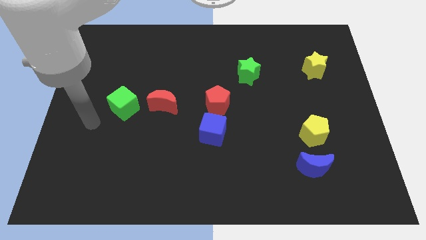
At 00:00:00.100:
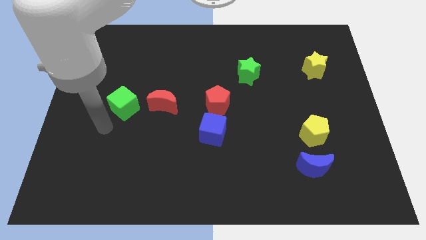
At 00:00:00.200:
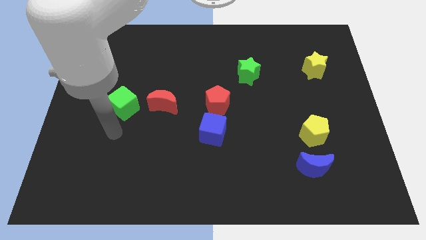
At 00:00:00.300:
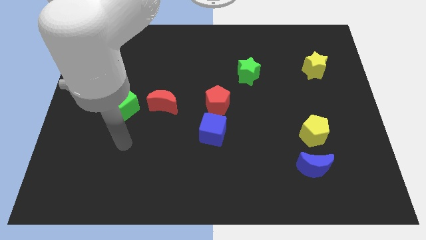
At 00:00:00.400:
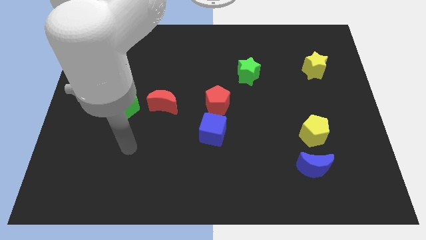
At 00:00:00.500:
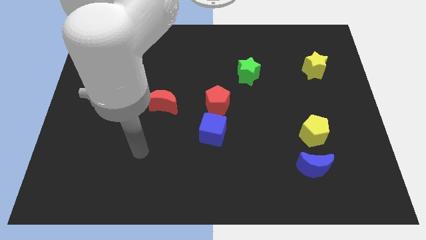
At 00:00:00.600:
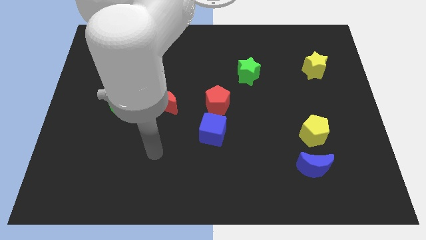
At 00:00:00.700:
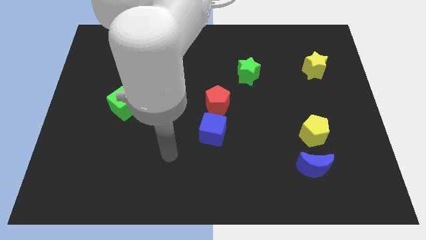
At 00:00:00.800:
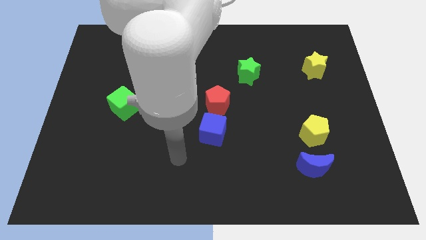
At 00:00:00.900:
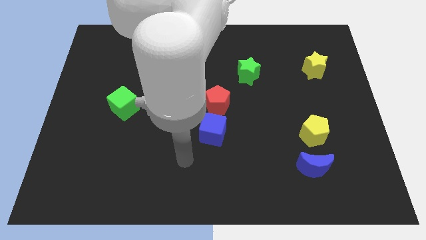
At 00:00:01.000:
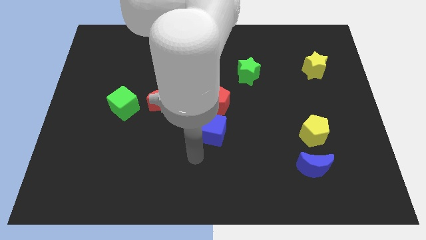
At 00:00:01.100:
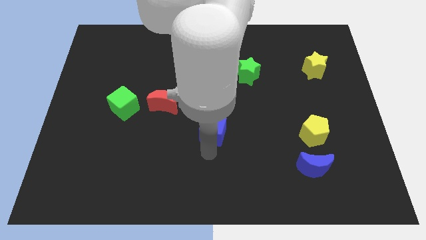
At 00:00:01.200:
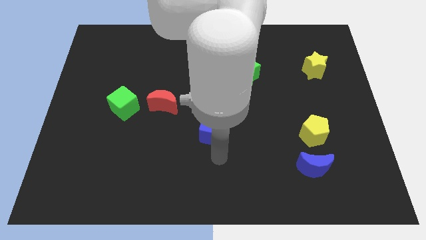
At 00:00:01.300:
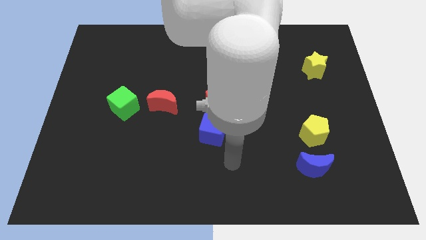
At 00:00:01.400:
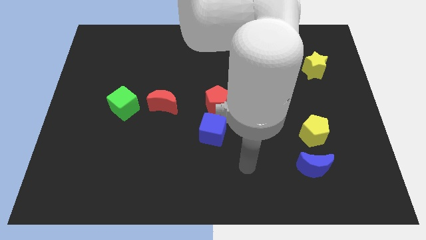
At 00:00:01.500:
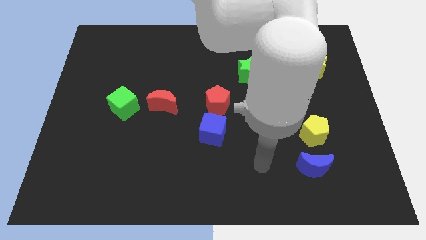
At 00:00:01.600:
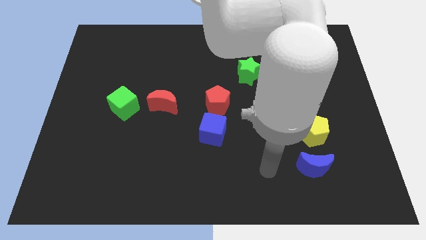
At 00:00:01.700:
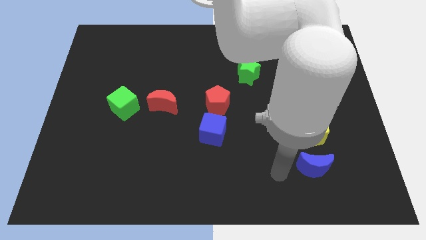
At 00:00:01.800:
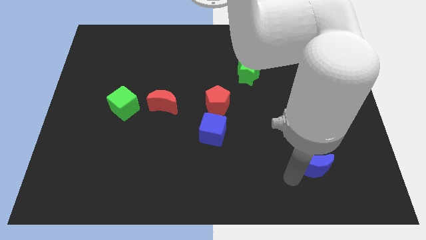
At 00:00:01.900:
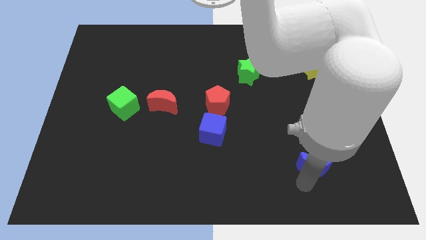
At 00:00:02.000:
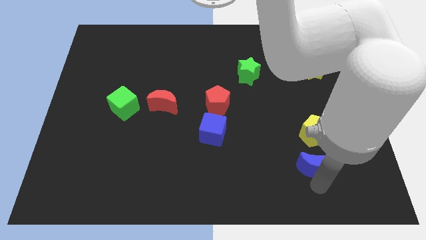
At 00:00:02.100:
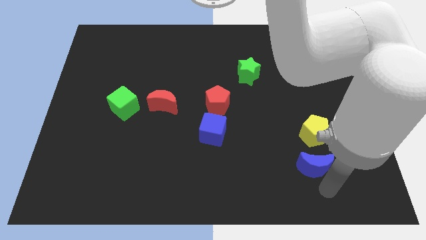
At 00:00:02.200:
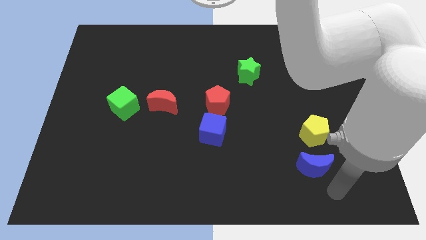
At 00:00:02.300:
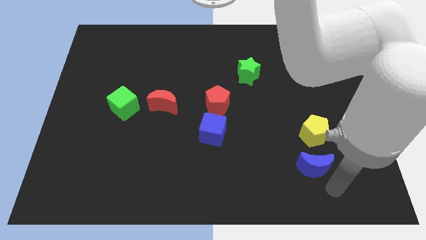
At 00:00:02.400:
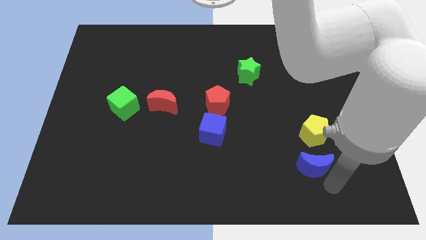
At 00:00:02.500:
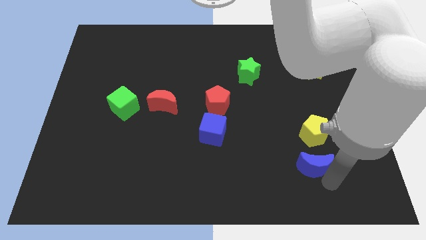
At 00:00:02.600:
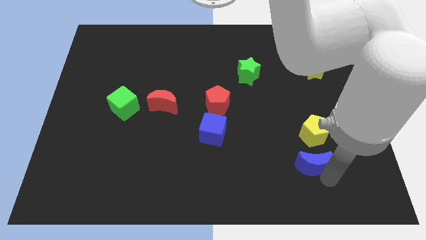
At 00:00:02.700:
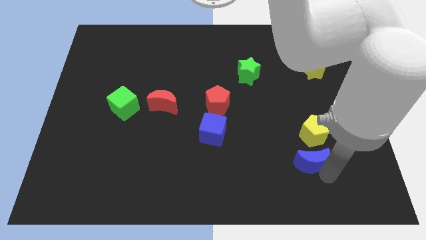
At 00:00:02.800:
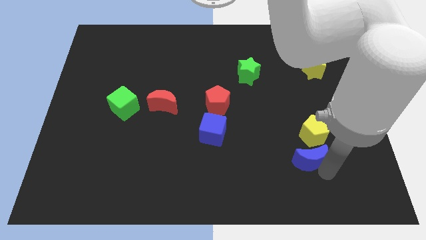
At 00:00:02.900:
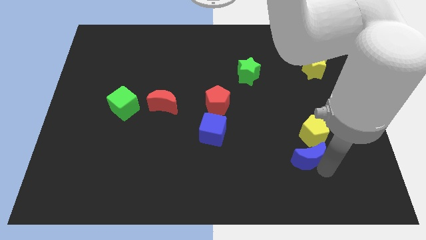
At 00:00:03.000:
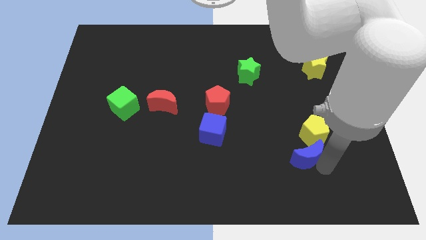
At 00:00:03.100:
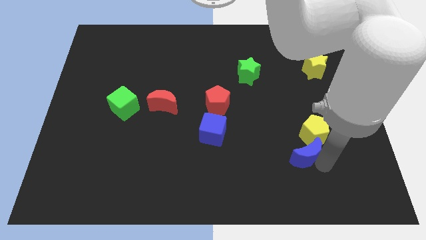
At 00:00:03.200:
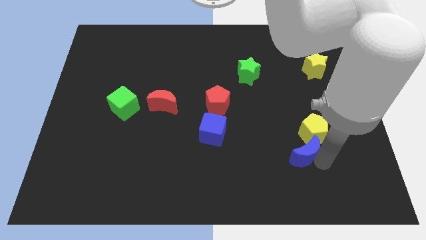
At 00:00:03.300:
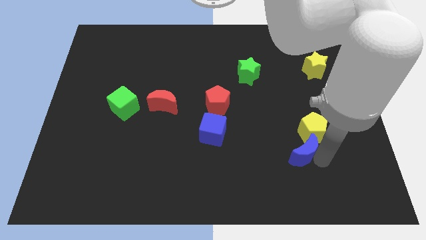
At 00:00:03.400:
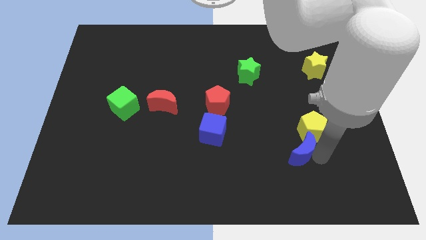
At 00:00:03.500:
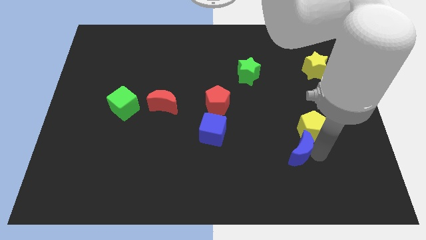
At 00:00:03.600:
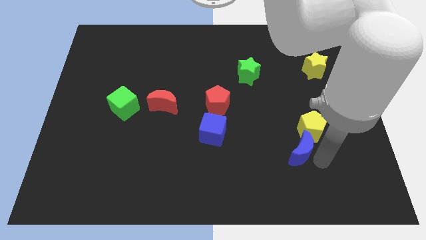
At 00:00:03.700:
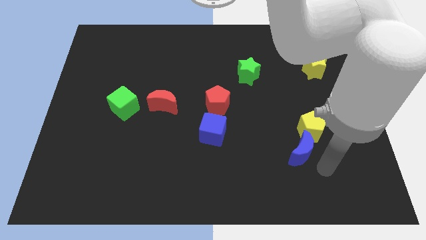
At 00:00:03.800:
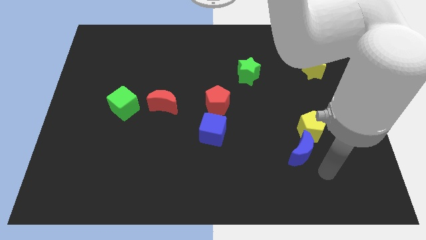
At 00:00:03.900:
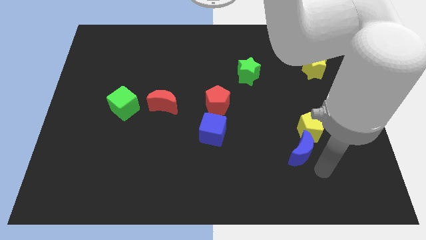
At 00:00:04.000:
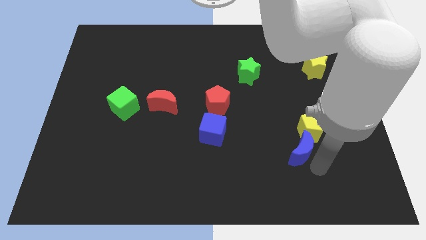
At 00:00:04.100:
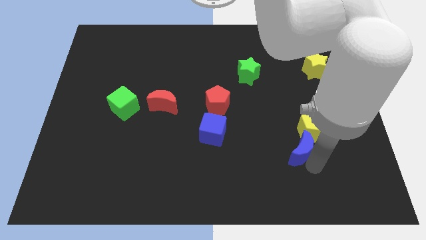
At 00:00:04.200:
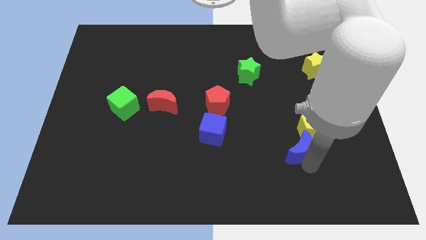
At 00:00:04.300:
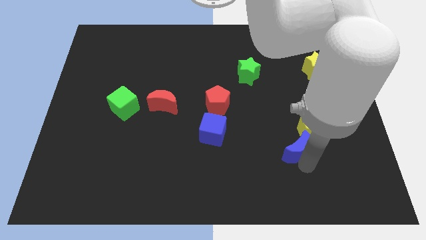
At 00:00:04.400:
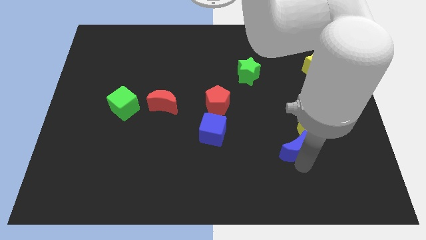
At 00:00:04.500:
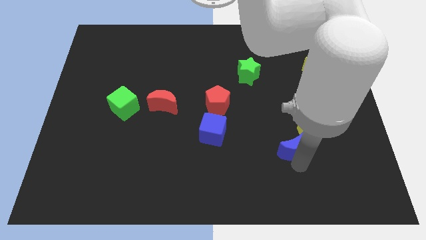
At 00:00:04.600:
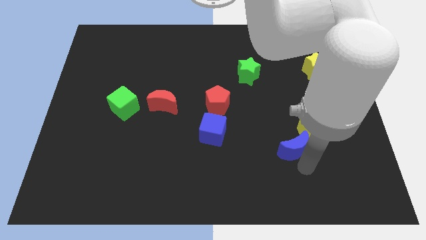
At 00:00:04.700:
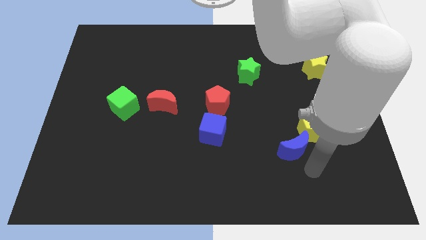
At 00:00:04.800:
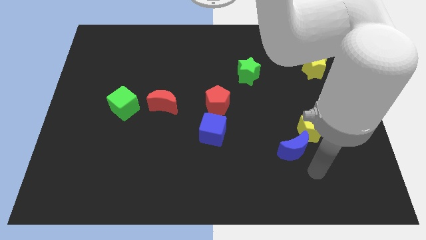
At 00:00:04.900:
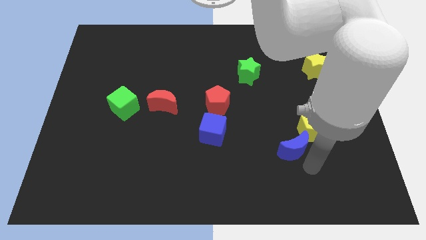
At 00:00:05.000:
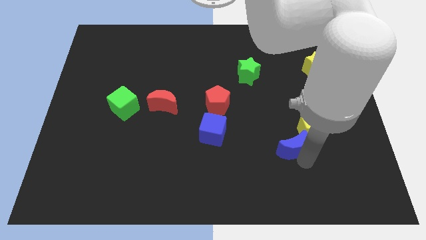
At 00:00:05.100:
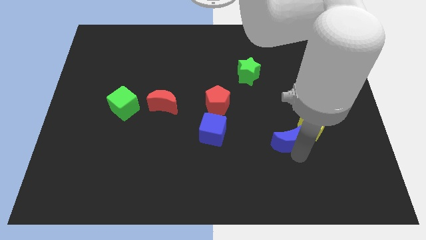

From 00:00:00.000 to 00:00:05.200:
move the blue moon upwards and left slightly

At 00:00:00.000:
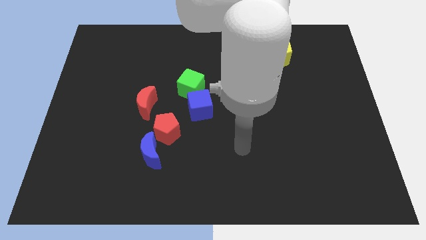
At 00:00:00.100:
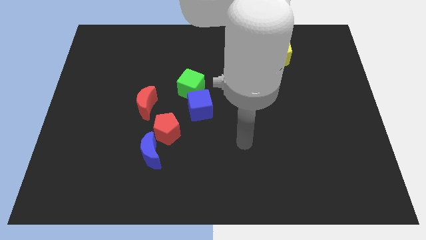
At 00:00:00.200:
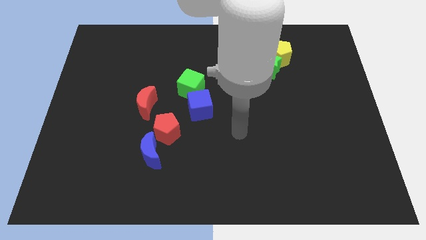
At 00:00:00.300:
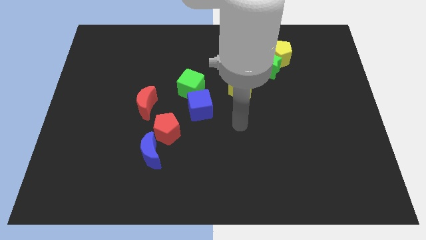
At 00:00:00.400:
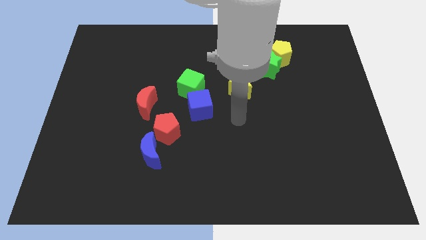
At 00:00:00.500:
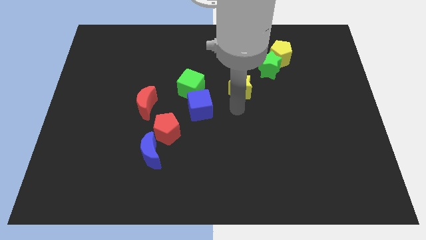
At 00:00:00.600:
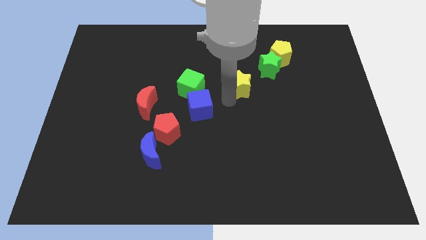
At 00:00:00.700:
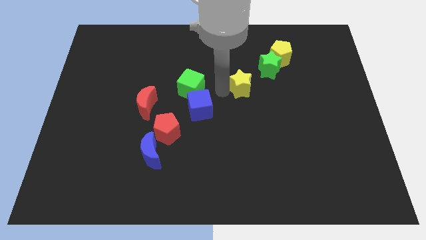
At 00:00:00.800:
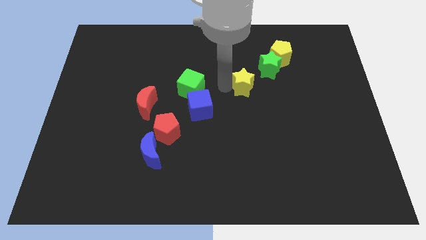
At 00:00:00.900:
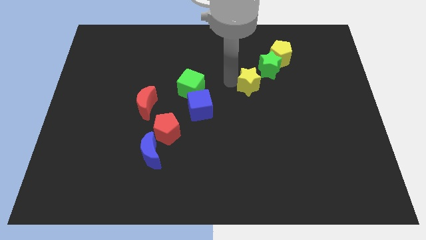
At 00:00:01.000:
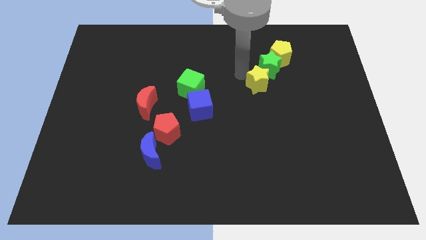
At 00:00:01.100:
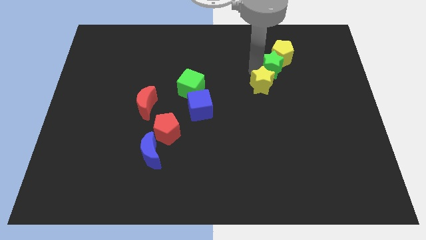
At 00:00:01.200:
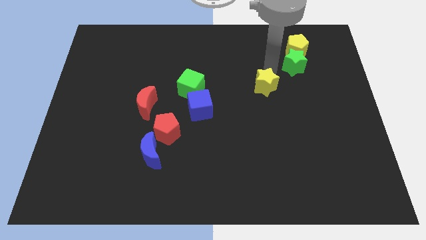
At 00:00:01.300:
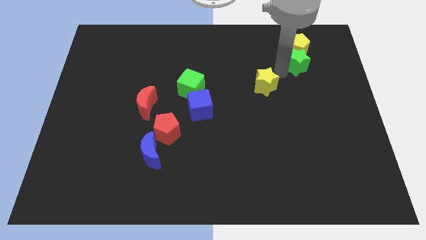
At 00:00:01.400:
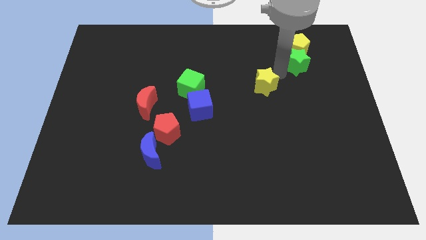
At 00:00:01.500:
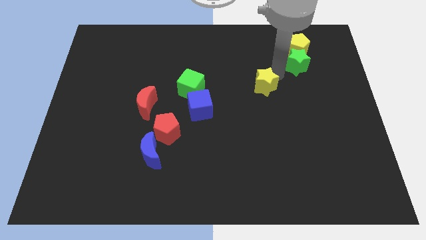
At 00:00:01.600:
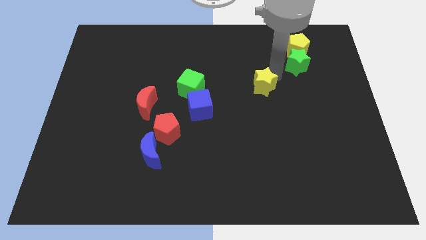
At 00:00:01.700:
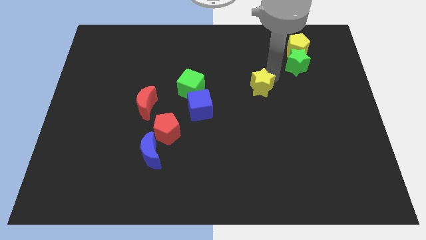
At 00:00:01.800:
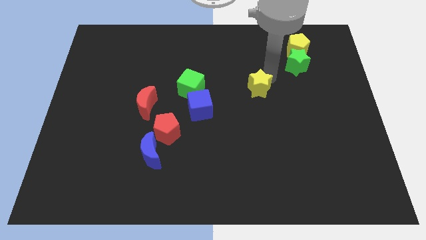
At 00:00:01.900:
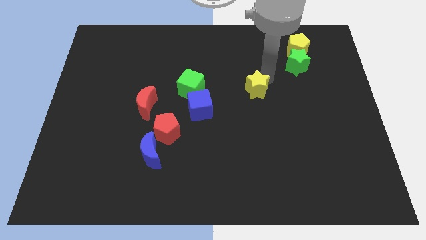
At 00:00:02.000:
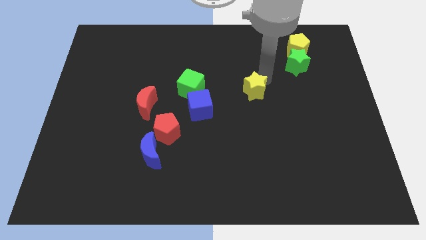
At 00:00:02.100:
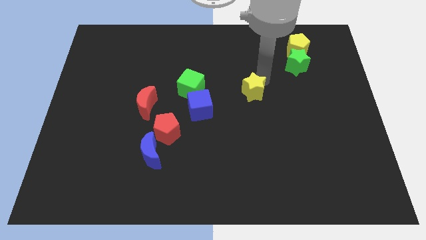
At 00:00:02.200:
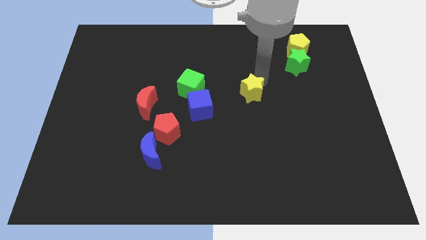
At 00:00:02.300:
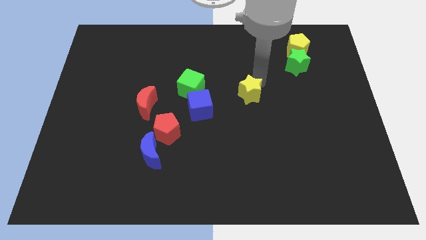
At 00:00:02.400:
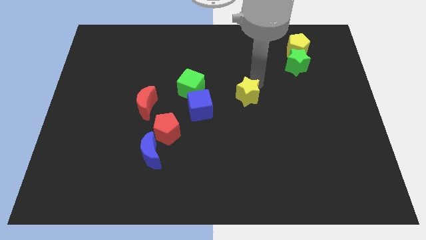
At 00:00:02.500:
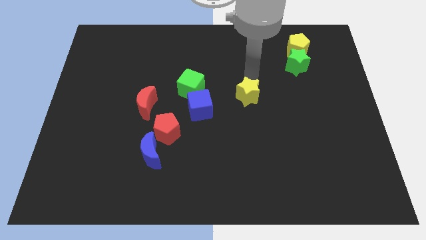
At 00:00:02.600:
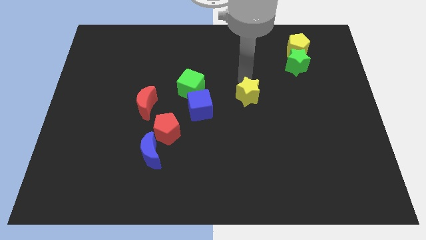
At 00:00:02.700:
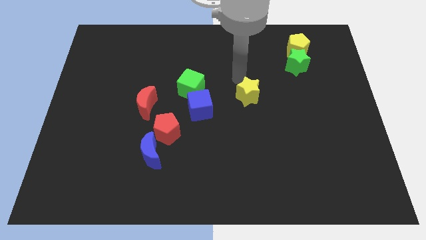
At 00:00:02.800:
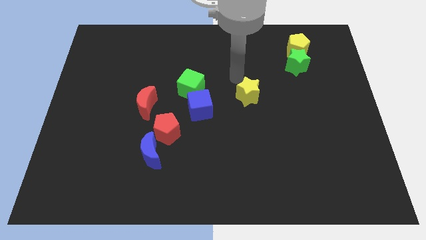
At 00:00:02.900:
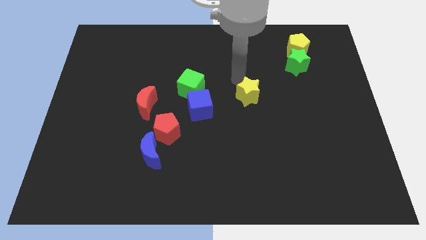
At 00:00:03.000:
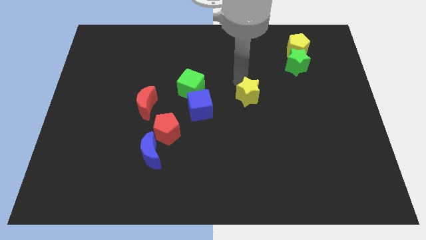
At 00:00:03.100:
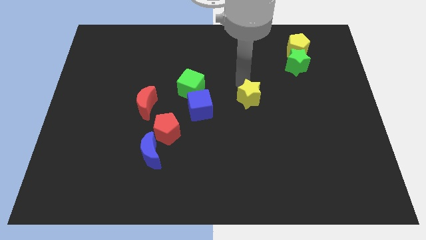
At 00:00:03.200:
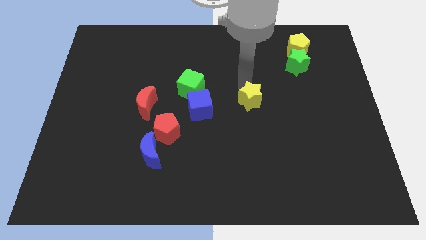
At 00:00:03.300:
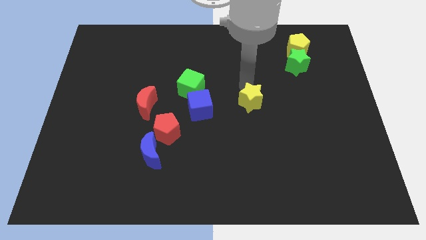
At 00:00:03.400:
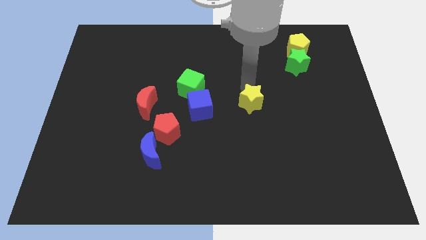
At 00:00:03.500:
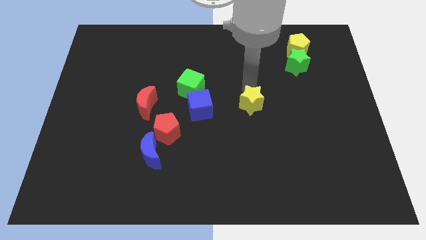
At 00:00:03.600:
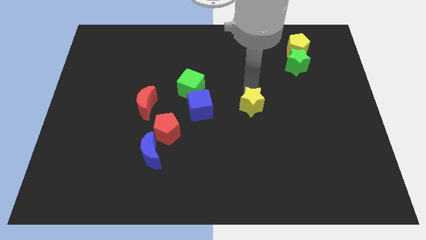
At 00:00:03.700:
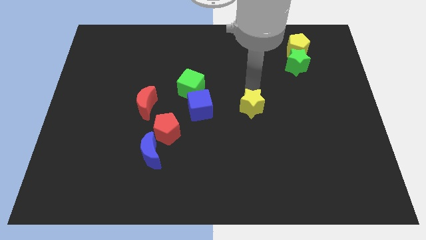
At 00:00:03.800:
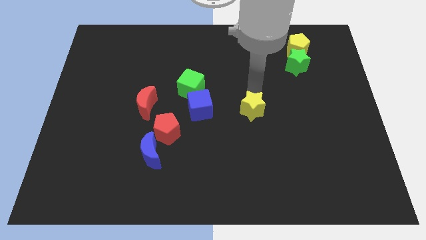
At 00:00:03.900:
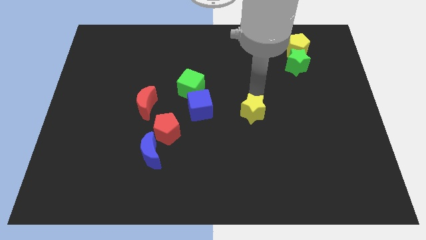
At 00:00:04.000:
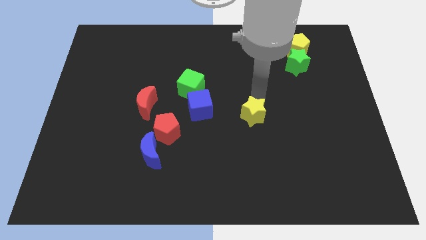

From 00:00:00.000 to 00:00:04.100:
slightly slide the yellow star down and right diagonally
